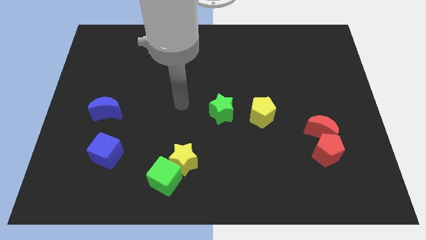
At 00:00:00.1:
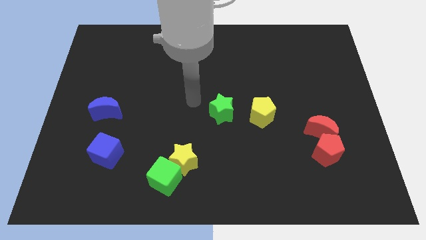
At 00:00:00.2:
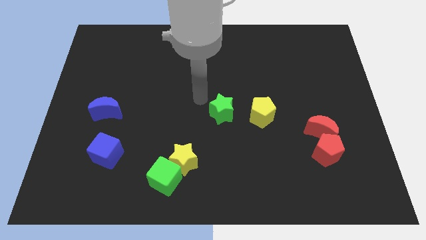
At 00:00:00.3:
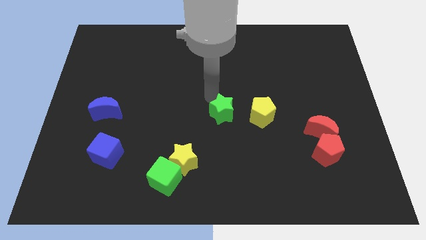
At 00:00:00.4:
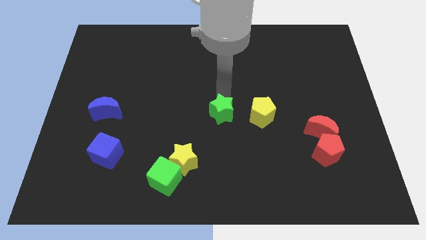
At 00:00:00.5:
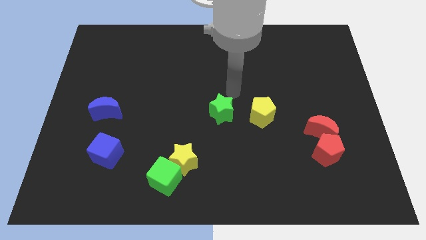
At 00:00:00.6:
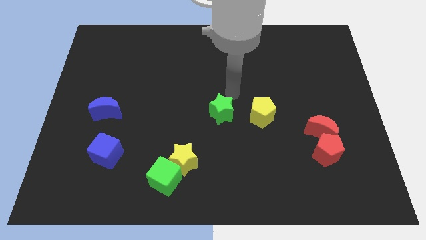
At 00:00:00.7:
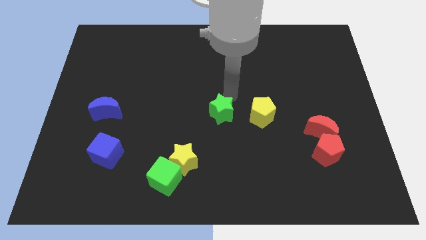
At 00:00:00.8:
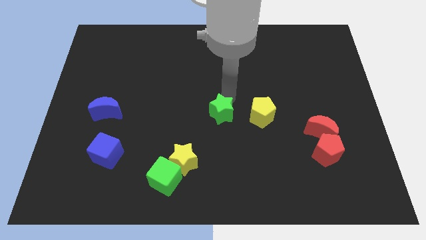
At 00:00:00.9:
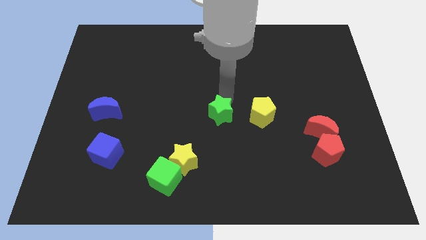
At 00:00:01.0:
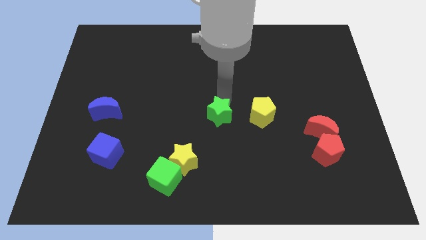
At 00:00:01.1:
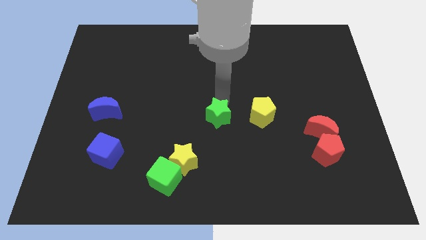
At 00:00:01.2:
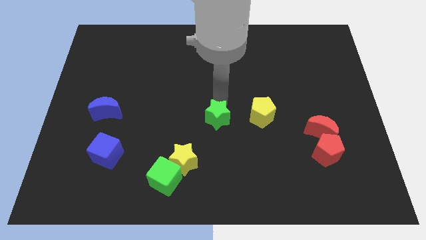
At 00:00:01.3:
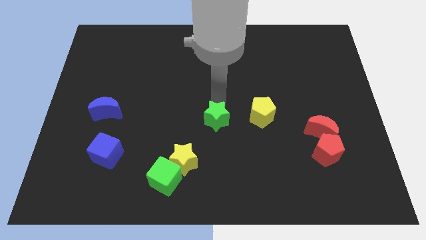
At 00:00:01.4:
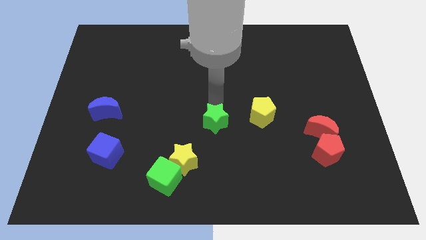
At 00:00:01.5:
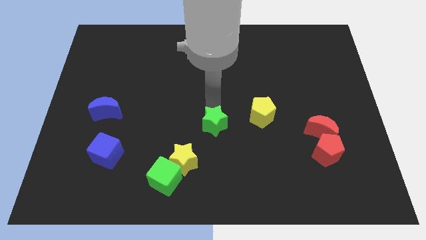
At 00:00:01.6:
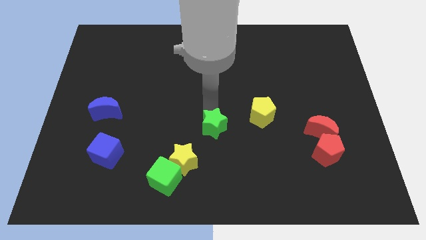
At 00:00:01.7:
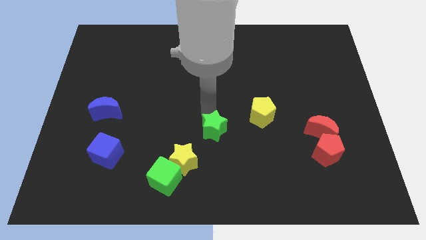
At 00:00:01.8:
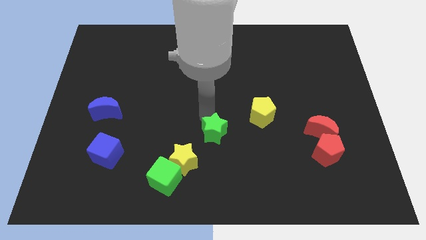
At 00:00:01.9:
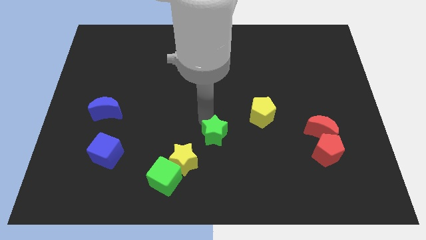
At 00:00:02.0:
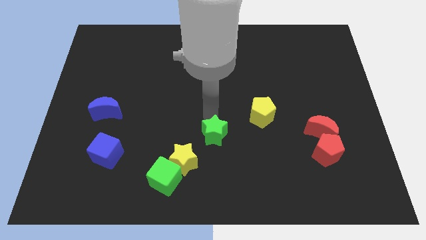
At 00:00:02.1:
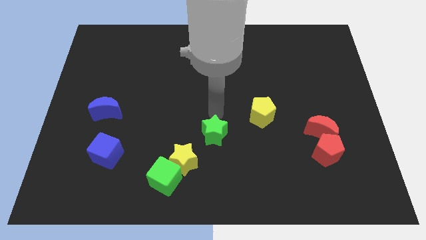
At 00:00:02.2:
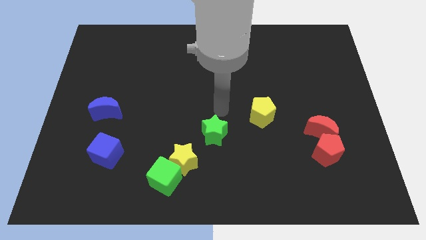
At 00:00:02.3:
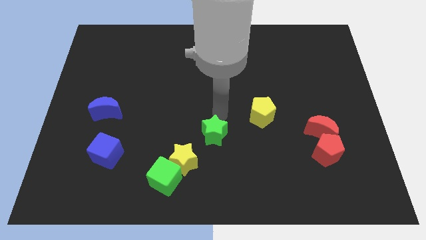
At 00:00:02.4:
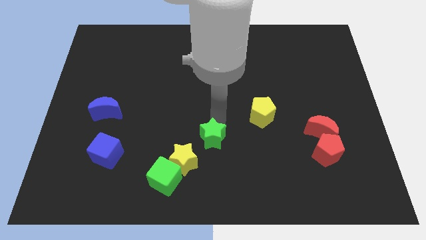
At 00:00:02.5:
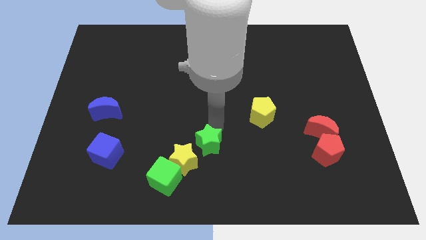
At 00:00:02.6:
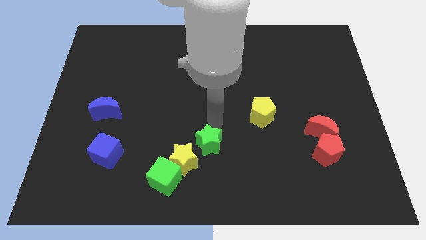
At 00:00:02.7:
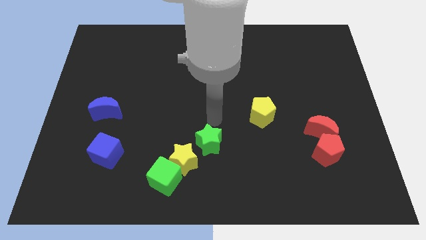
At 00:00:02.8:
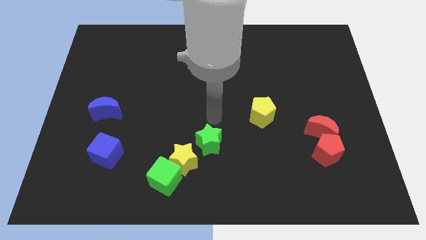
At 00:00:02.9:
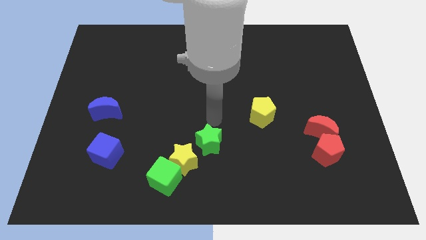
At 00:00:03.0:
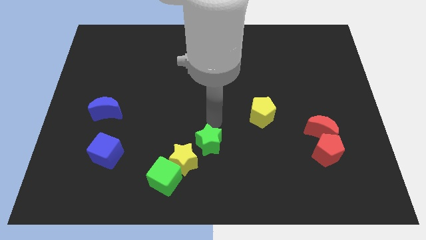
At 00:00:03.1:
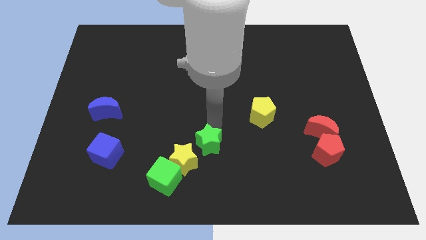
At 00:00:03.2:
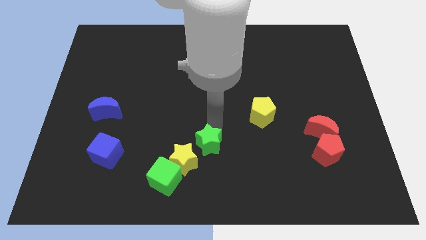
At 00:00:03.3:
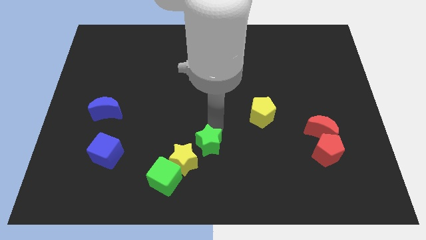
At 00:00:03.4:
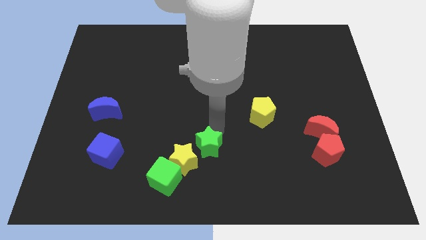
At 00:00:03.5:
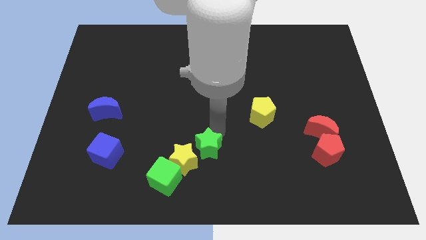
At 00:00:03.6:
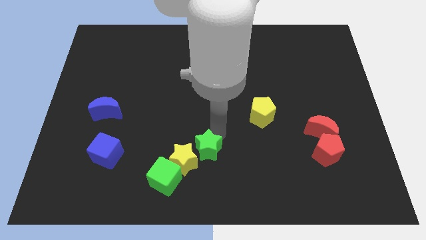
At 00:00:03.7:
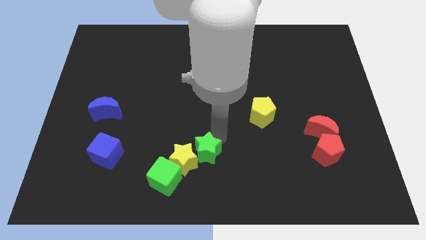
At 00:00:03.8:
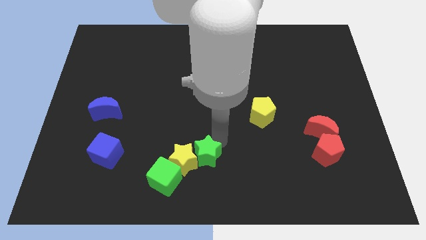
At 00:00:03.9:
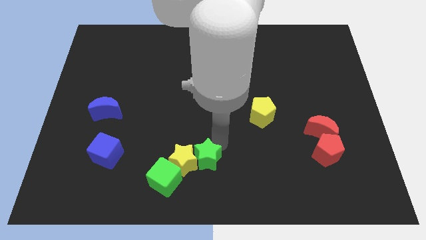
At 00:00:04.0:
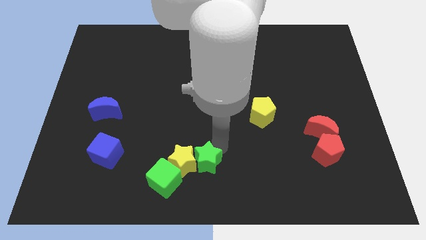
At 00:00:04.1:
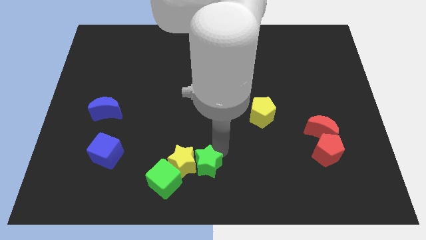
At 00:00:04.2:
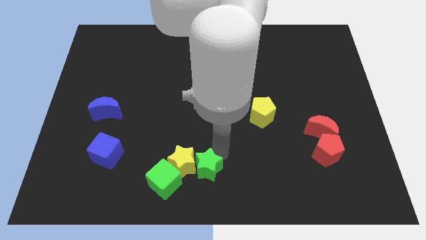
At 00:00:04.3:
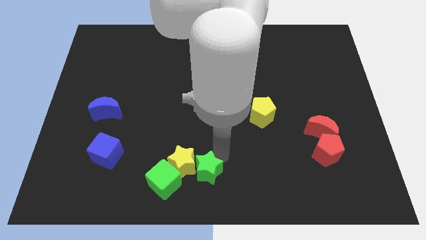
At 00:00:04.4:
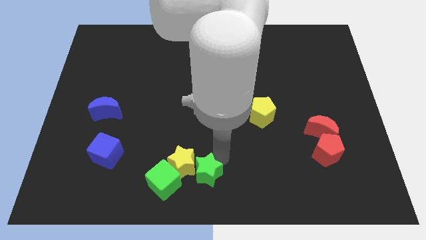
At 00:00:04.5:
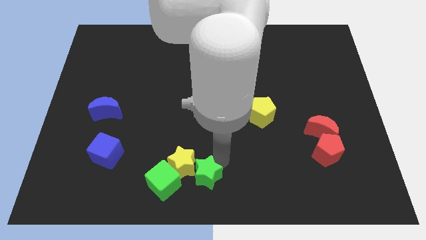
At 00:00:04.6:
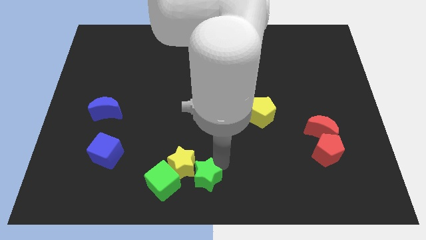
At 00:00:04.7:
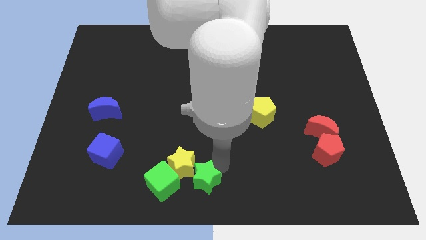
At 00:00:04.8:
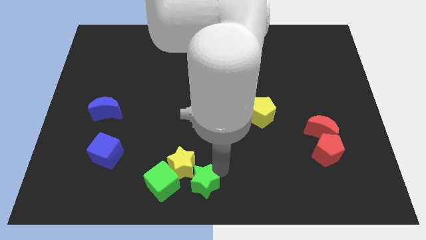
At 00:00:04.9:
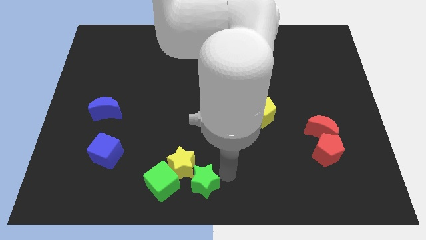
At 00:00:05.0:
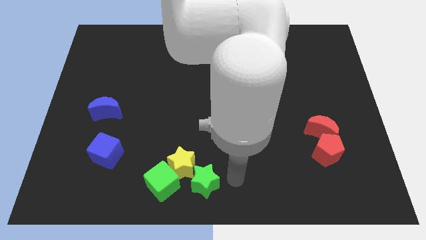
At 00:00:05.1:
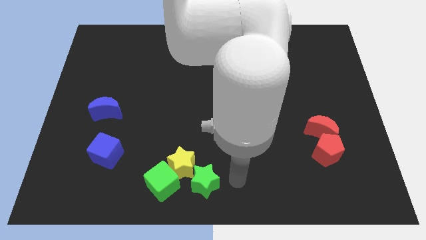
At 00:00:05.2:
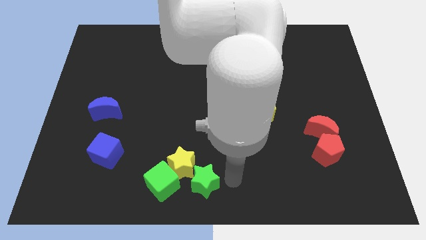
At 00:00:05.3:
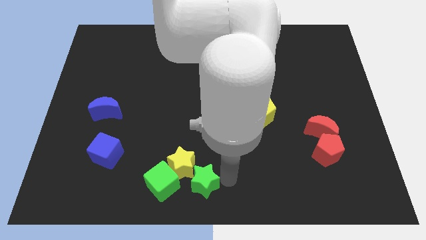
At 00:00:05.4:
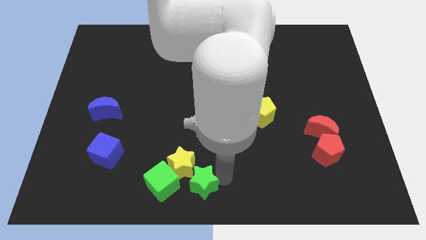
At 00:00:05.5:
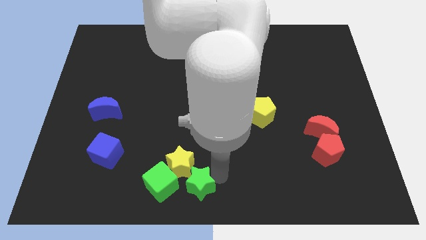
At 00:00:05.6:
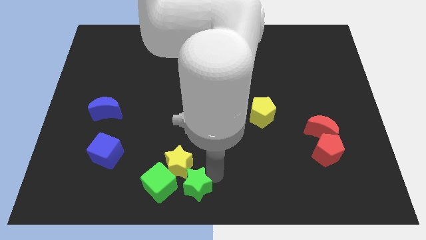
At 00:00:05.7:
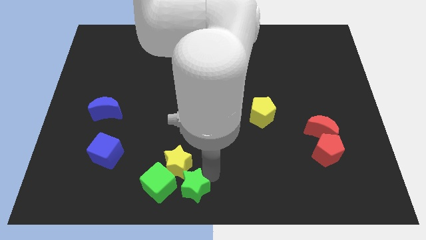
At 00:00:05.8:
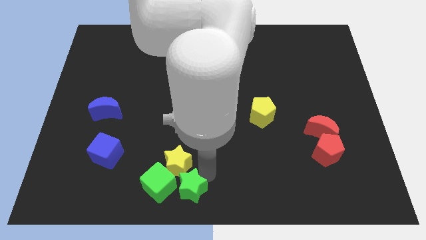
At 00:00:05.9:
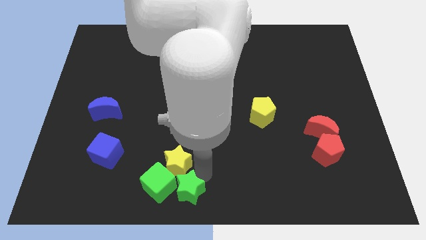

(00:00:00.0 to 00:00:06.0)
put the green star close to the green cube

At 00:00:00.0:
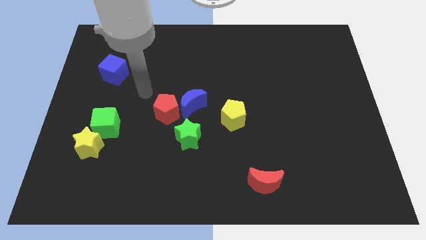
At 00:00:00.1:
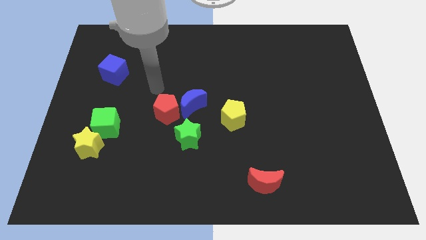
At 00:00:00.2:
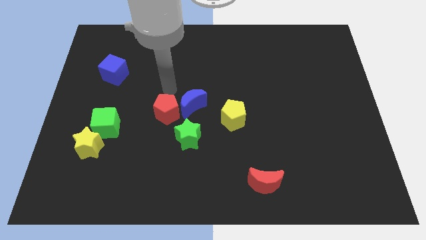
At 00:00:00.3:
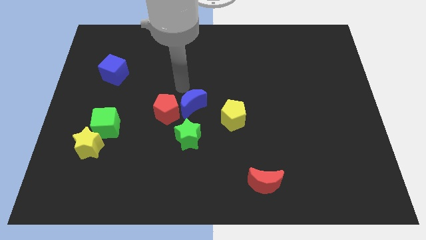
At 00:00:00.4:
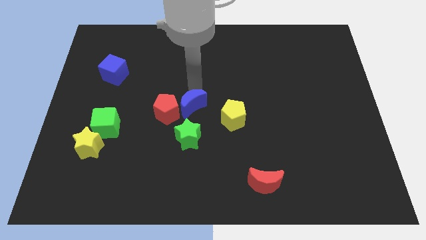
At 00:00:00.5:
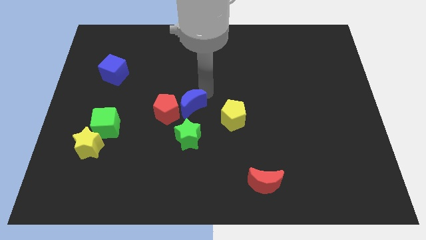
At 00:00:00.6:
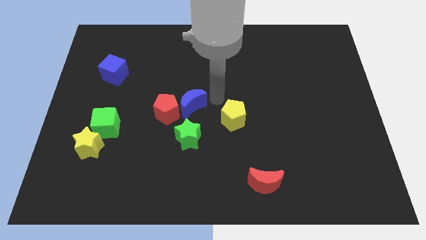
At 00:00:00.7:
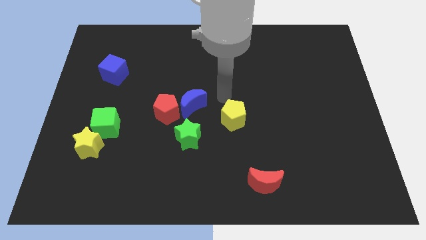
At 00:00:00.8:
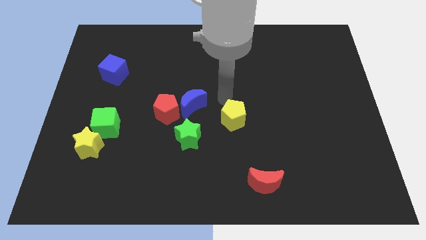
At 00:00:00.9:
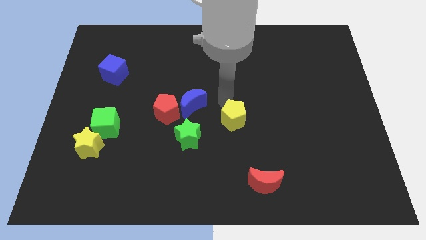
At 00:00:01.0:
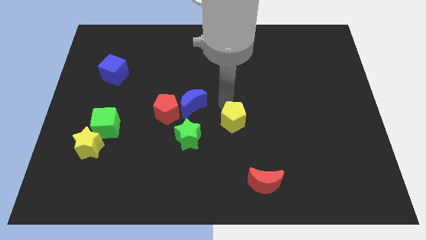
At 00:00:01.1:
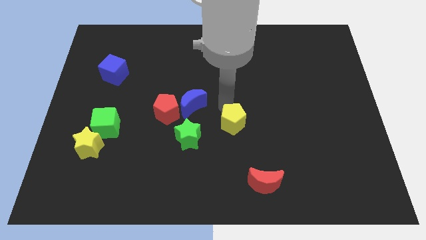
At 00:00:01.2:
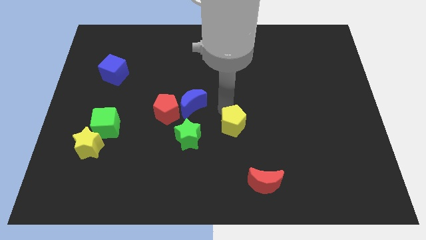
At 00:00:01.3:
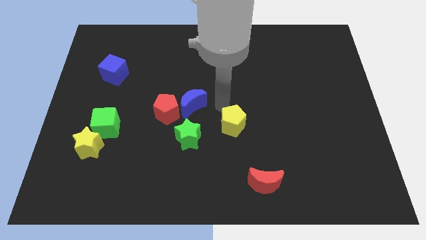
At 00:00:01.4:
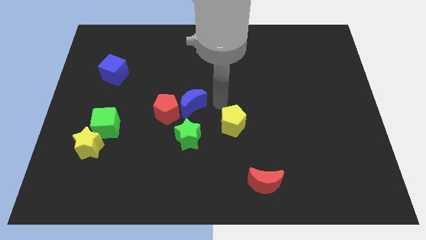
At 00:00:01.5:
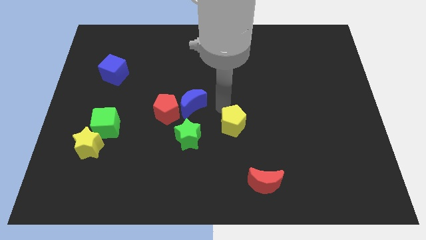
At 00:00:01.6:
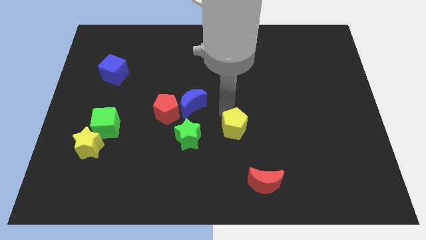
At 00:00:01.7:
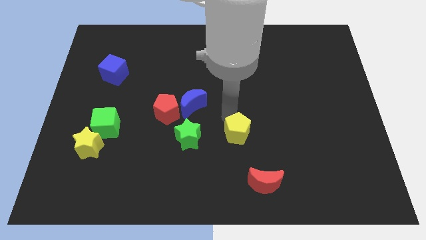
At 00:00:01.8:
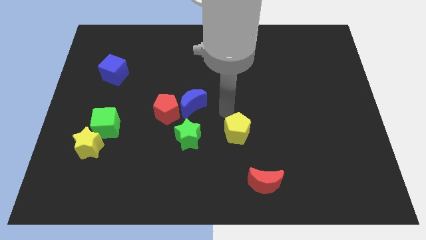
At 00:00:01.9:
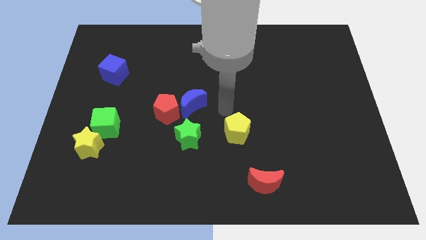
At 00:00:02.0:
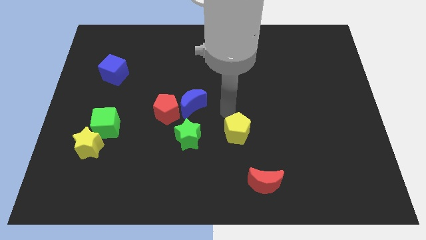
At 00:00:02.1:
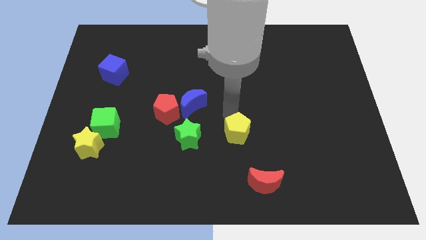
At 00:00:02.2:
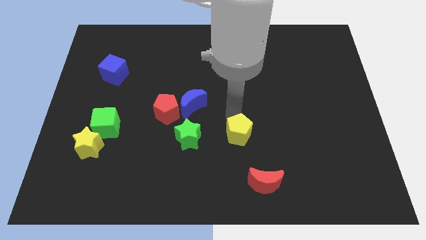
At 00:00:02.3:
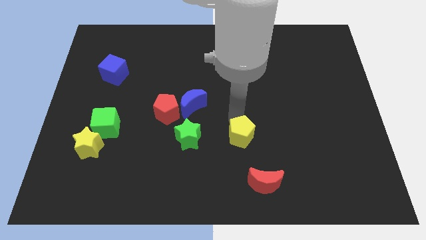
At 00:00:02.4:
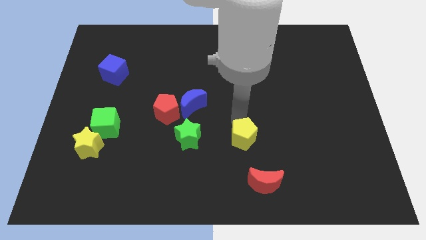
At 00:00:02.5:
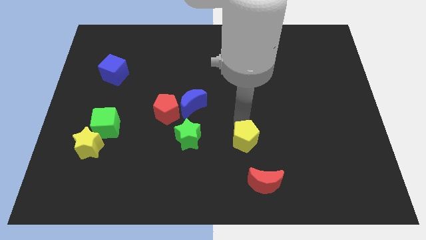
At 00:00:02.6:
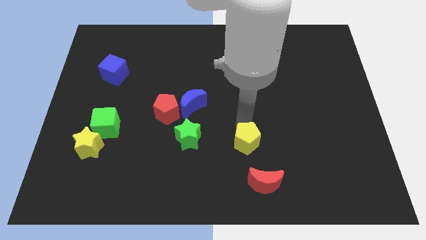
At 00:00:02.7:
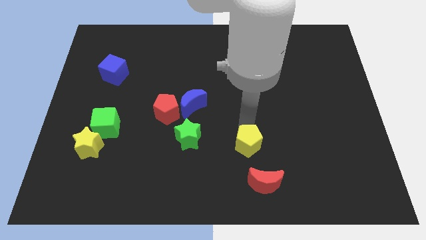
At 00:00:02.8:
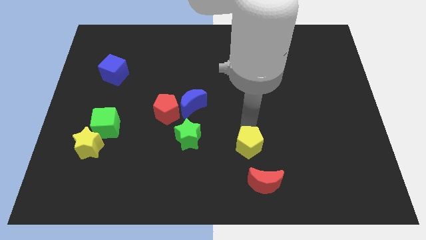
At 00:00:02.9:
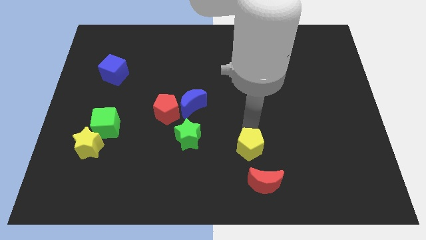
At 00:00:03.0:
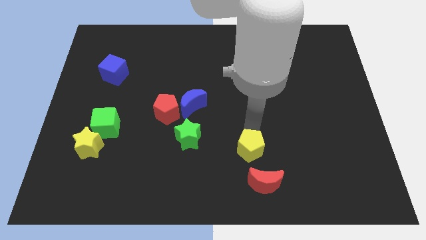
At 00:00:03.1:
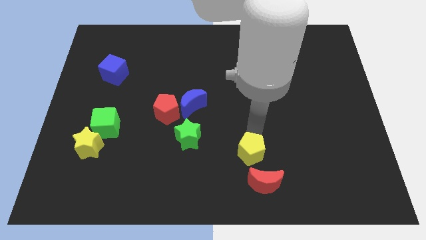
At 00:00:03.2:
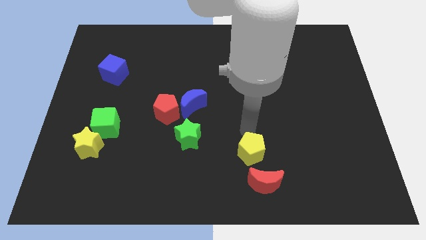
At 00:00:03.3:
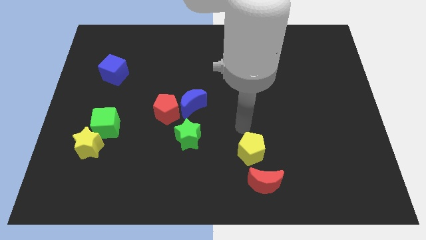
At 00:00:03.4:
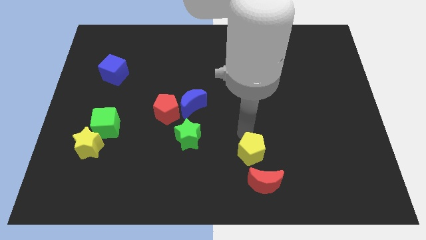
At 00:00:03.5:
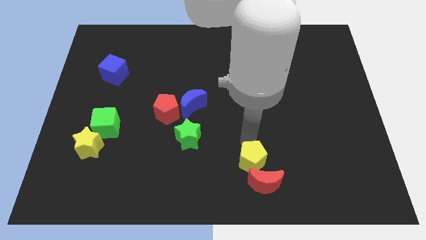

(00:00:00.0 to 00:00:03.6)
slide the yellow pentagon next to the red moon
